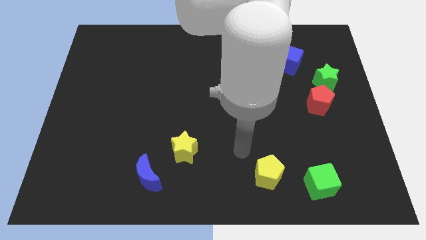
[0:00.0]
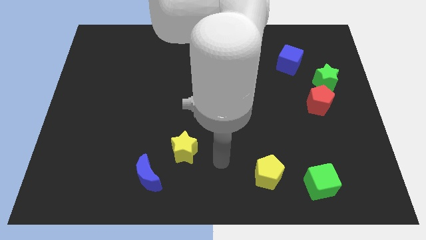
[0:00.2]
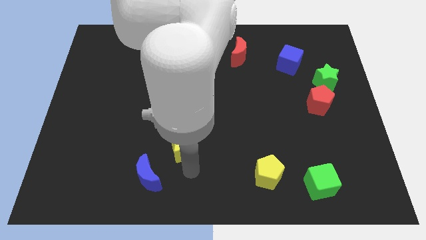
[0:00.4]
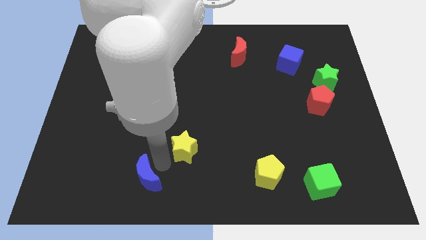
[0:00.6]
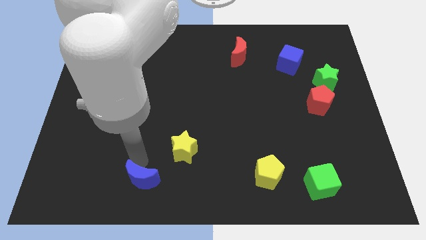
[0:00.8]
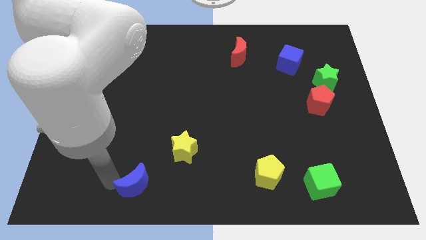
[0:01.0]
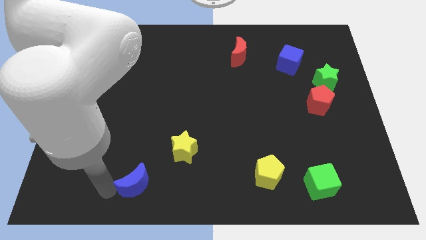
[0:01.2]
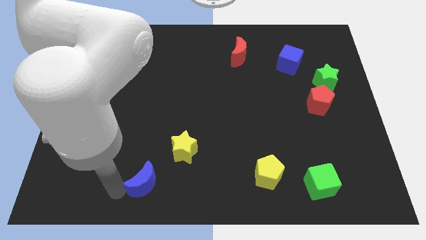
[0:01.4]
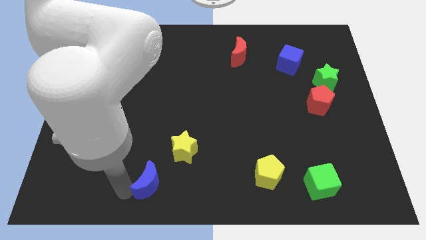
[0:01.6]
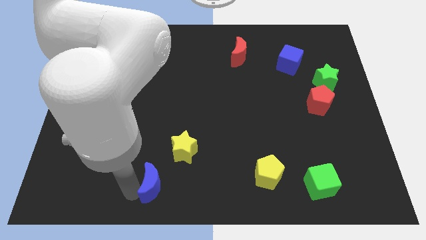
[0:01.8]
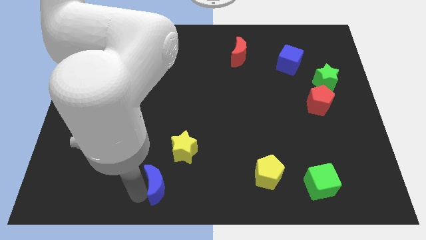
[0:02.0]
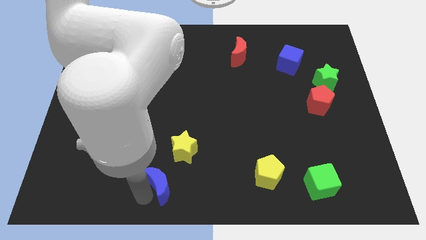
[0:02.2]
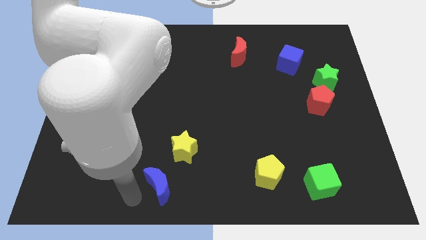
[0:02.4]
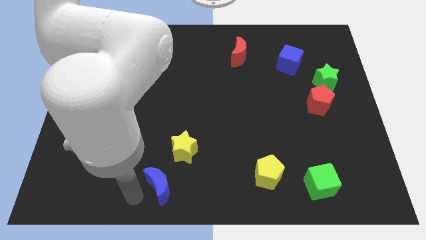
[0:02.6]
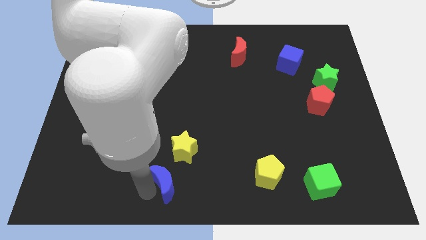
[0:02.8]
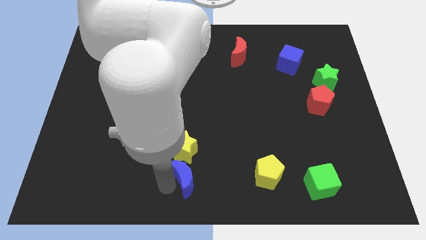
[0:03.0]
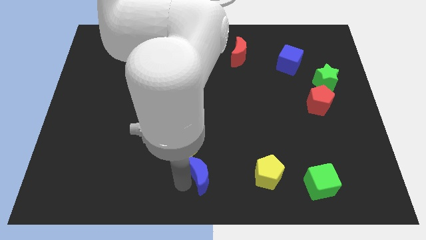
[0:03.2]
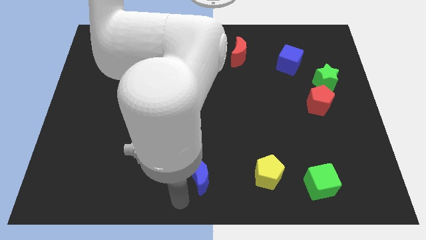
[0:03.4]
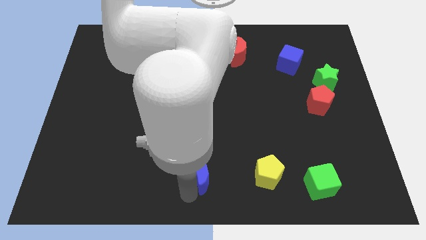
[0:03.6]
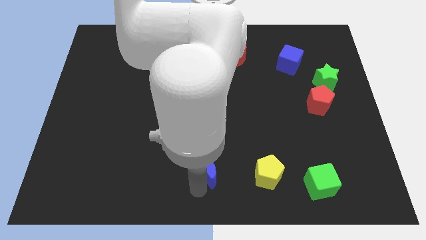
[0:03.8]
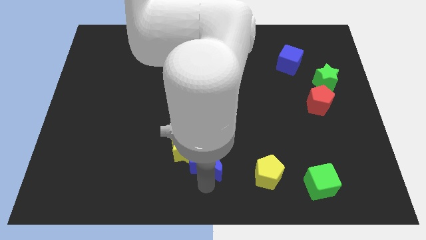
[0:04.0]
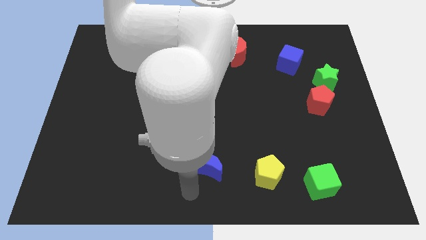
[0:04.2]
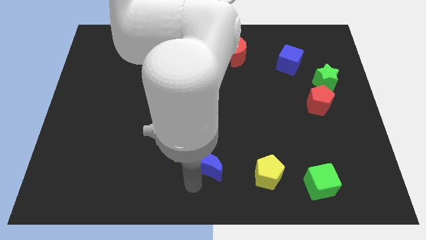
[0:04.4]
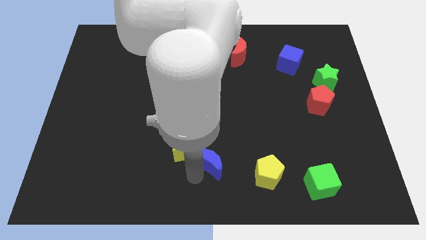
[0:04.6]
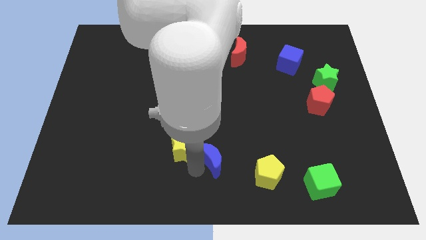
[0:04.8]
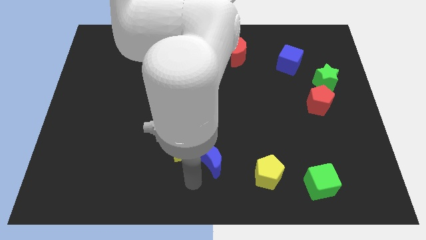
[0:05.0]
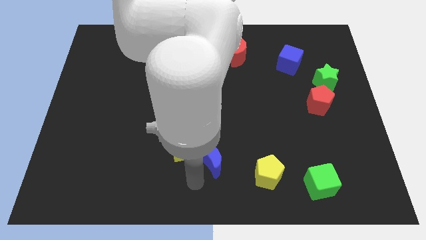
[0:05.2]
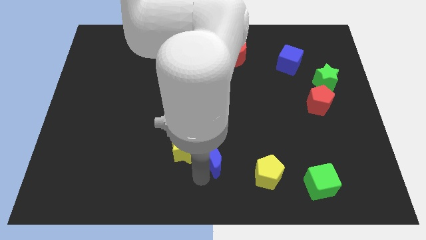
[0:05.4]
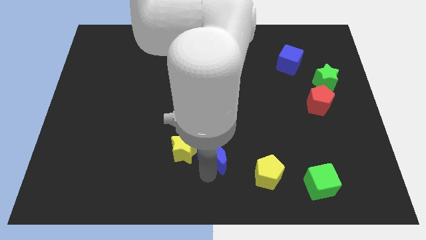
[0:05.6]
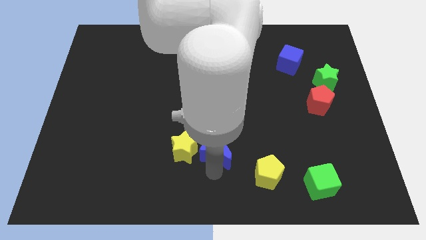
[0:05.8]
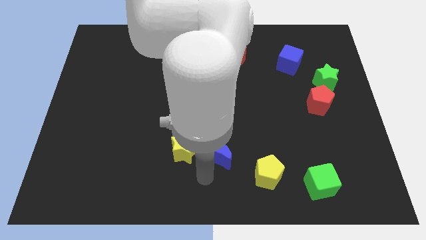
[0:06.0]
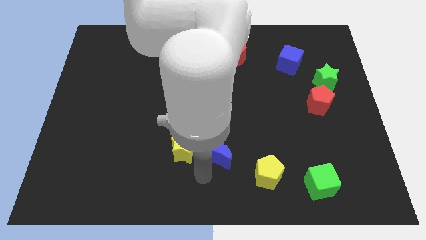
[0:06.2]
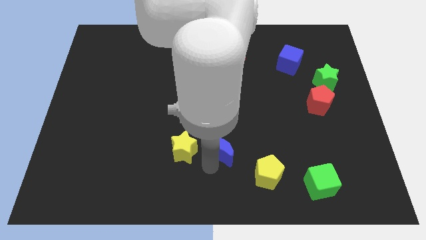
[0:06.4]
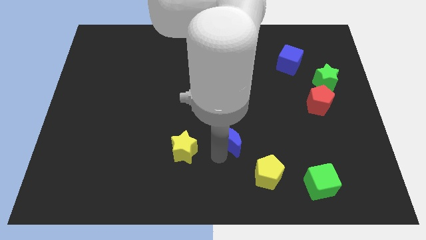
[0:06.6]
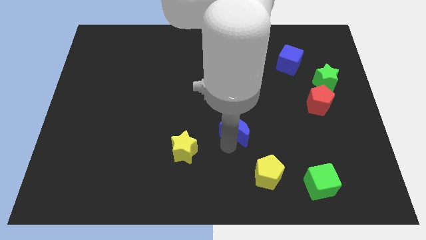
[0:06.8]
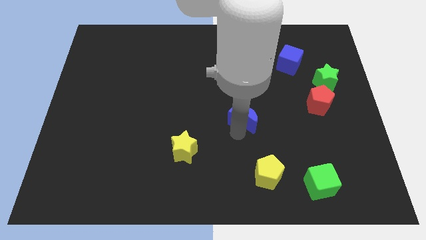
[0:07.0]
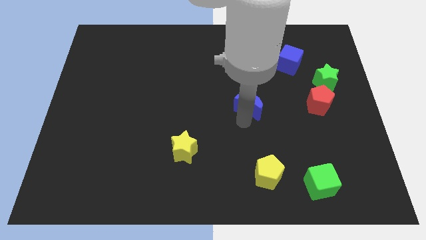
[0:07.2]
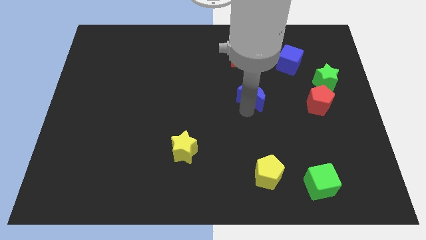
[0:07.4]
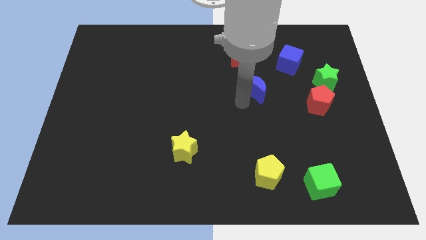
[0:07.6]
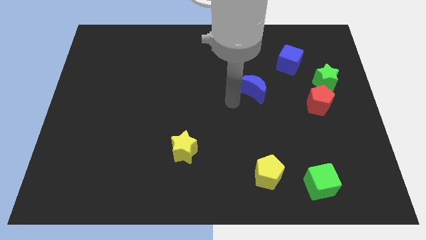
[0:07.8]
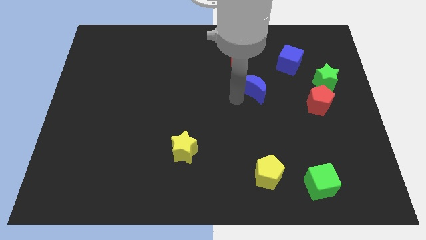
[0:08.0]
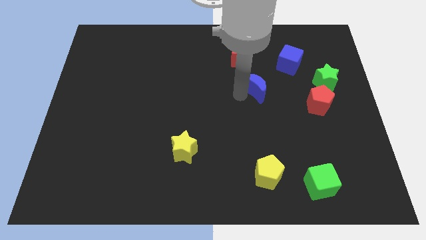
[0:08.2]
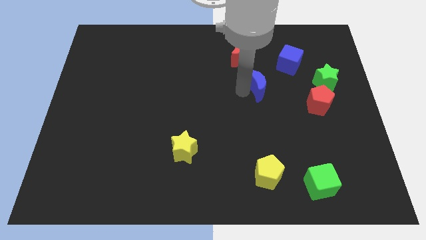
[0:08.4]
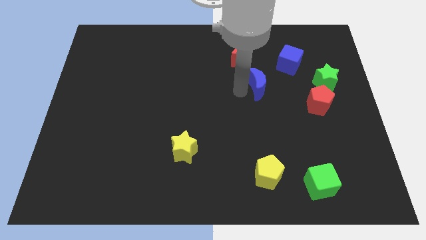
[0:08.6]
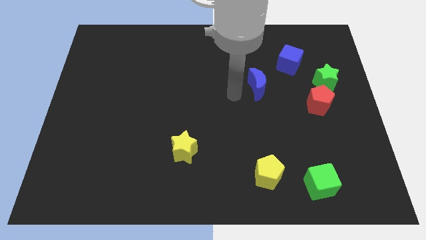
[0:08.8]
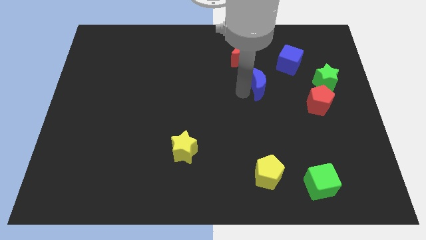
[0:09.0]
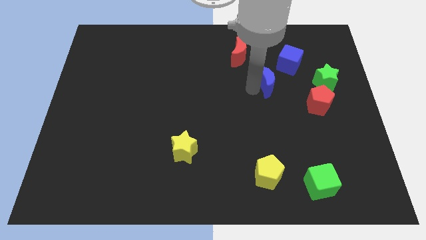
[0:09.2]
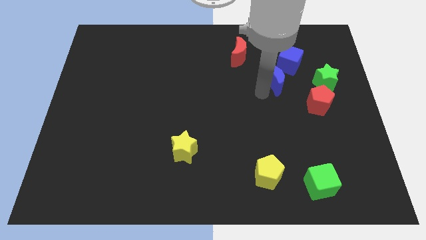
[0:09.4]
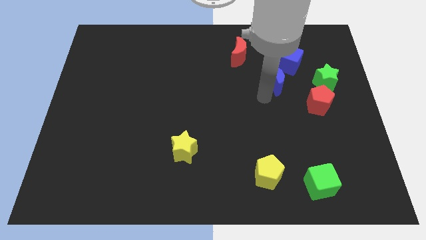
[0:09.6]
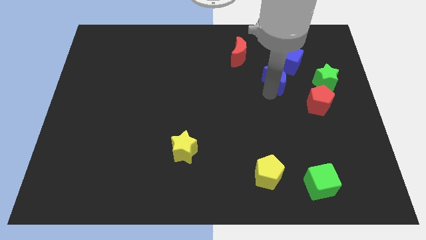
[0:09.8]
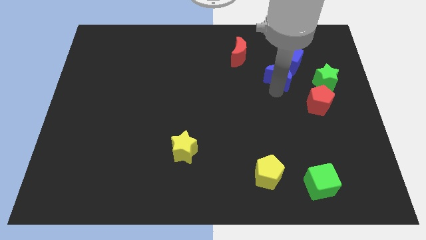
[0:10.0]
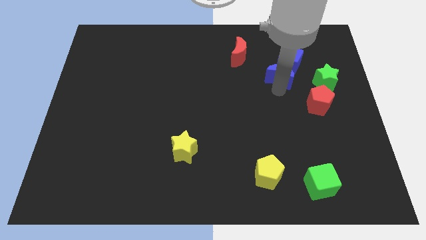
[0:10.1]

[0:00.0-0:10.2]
slide the blue moon close to the blue cube

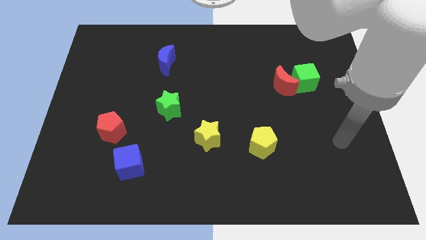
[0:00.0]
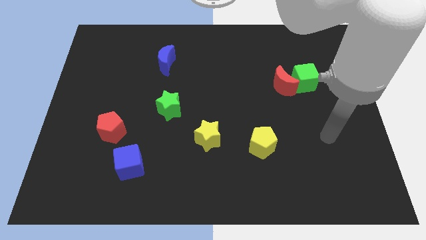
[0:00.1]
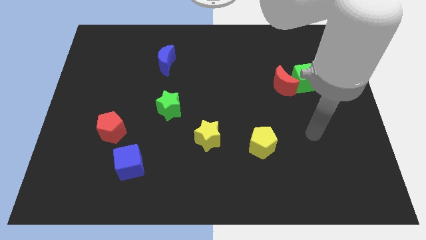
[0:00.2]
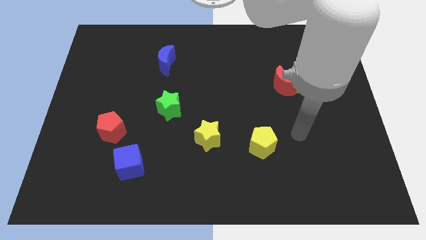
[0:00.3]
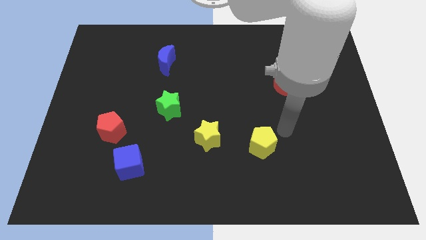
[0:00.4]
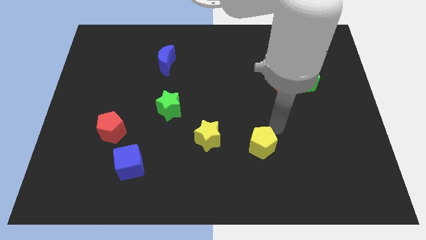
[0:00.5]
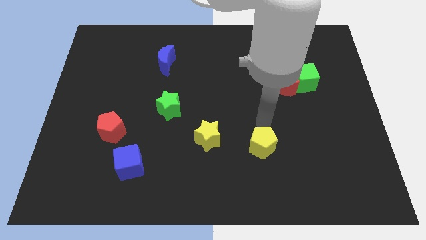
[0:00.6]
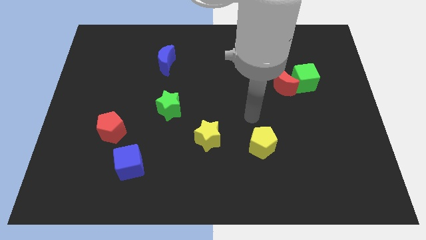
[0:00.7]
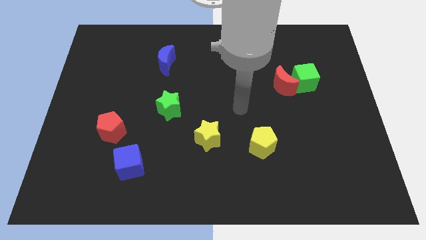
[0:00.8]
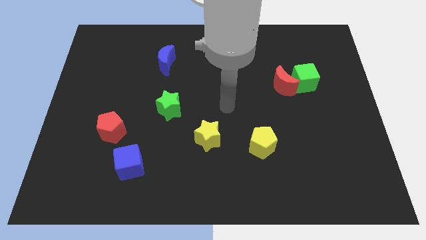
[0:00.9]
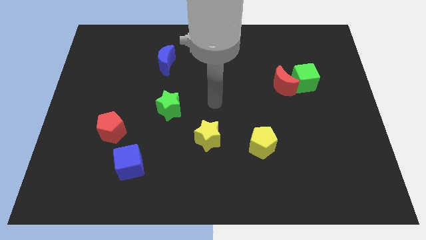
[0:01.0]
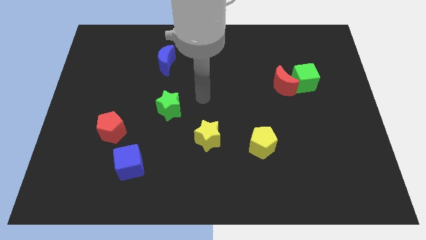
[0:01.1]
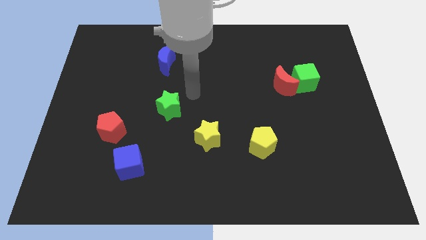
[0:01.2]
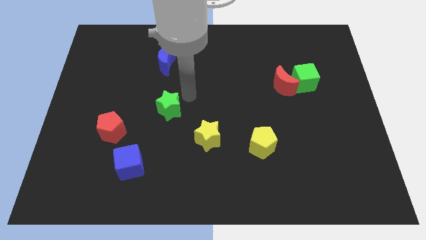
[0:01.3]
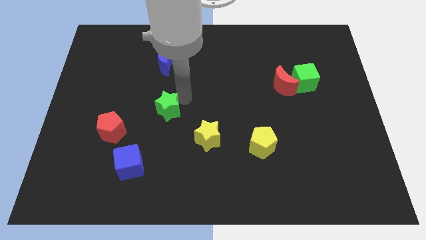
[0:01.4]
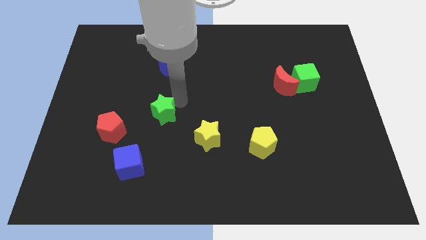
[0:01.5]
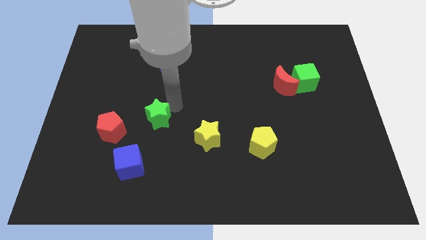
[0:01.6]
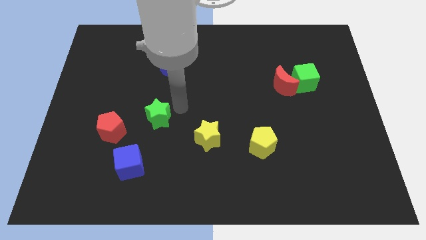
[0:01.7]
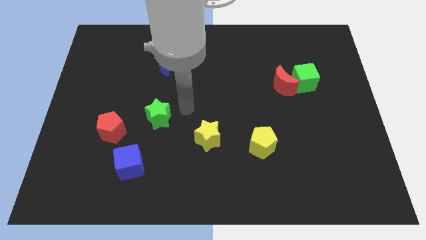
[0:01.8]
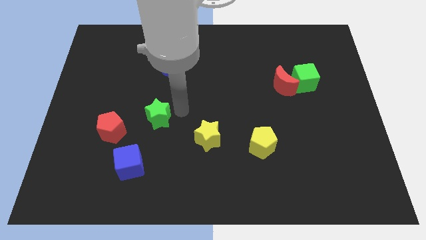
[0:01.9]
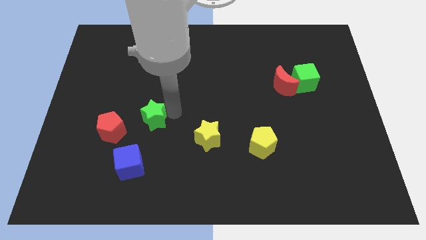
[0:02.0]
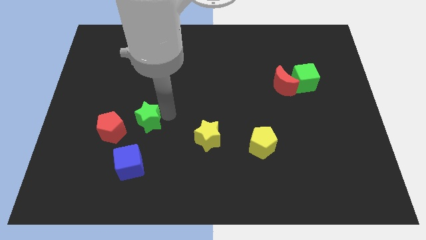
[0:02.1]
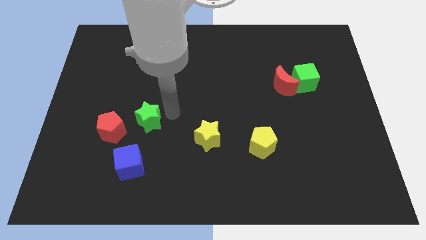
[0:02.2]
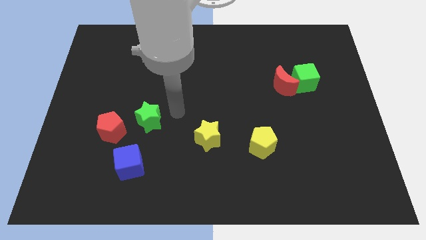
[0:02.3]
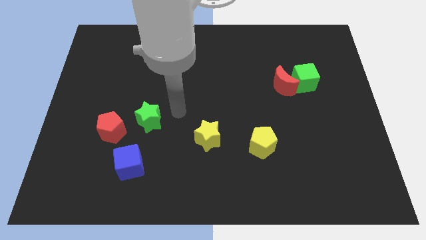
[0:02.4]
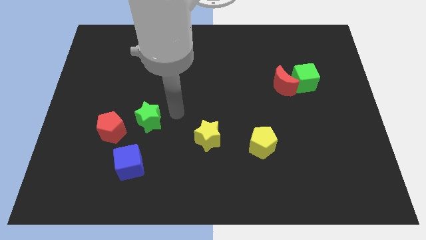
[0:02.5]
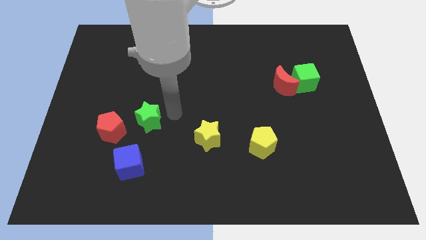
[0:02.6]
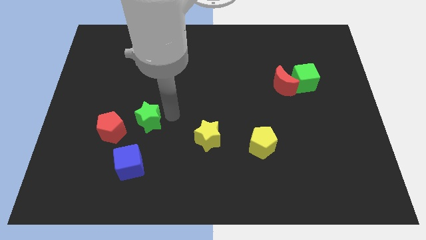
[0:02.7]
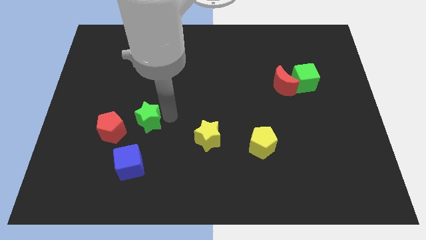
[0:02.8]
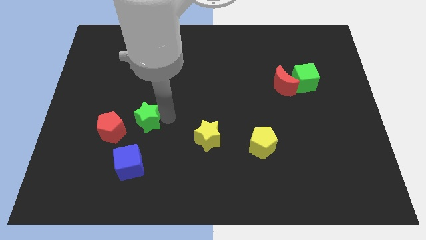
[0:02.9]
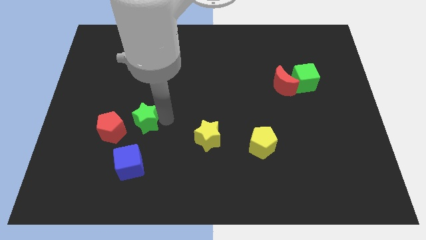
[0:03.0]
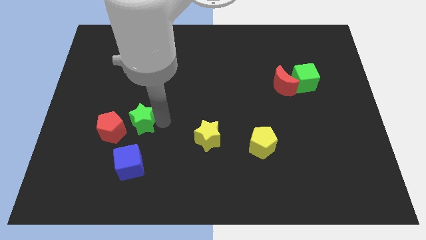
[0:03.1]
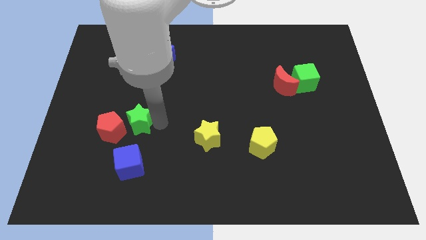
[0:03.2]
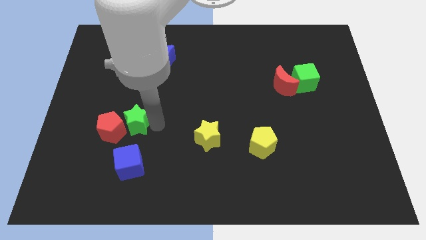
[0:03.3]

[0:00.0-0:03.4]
move the green star towards the red pentagon
